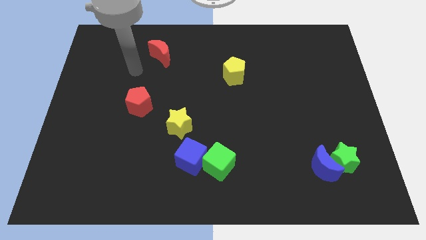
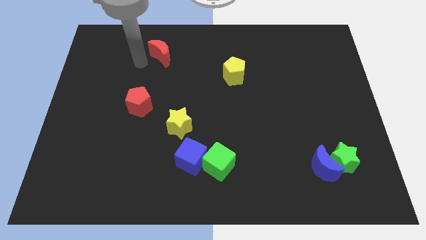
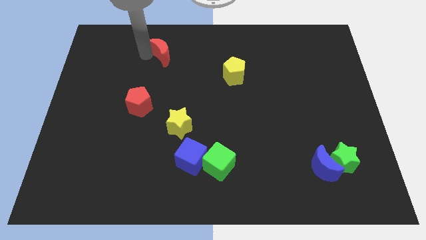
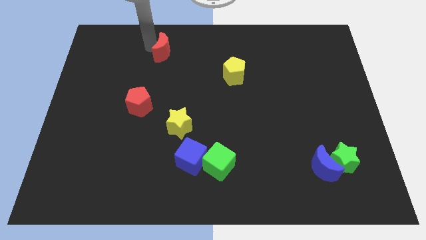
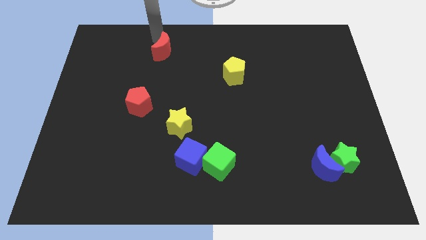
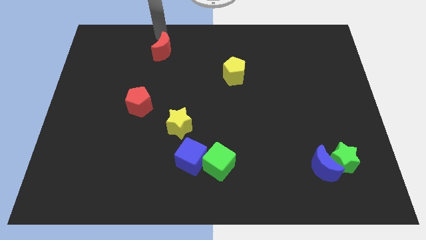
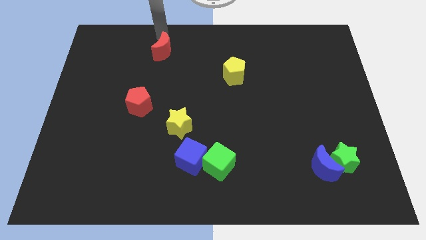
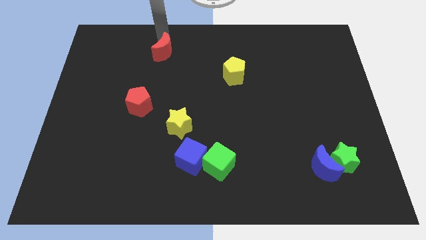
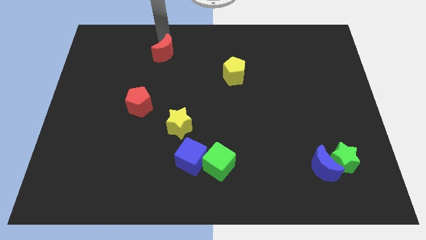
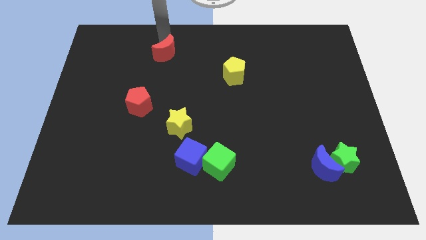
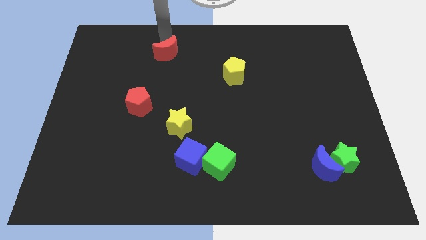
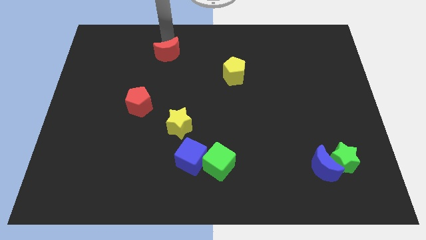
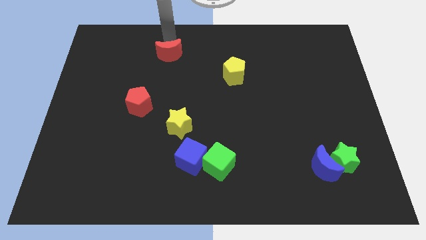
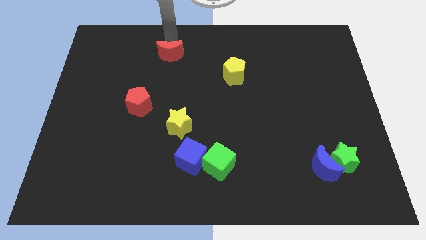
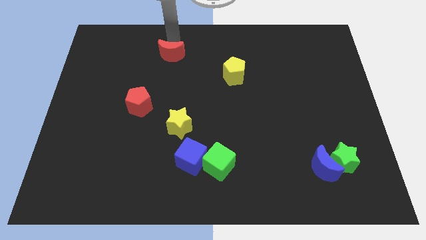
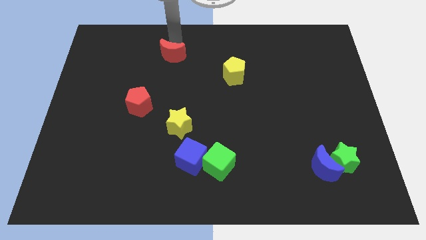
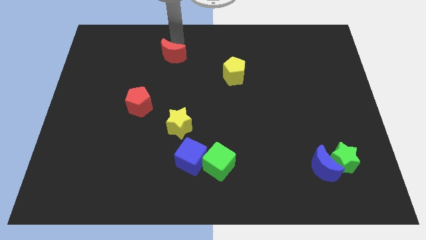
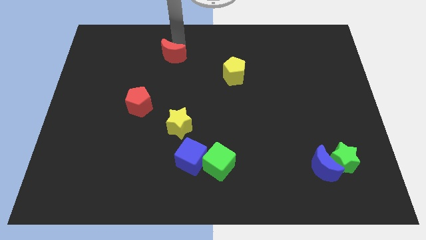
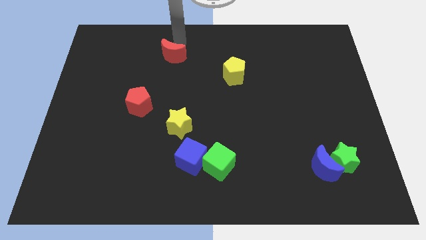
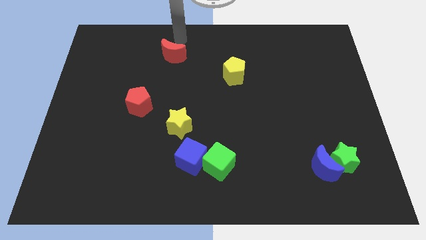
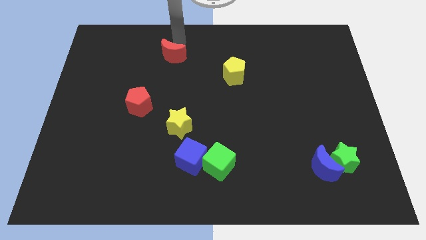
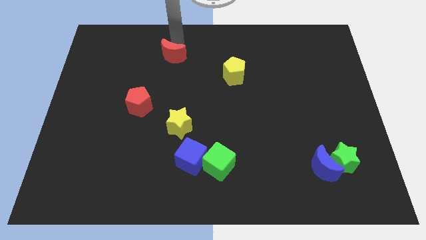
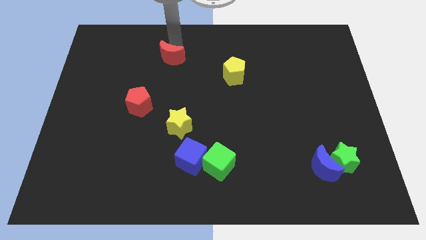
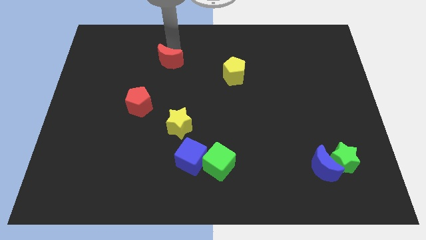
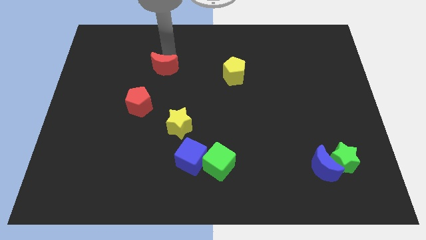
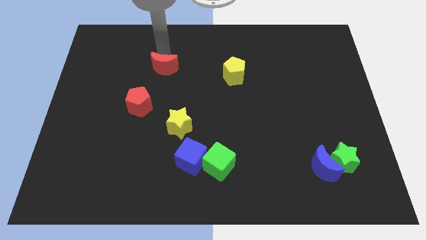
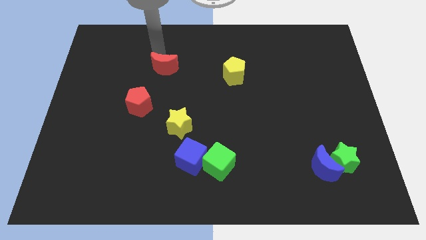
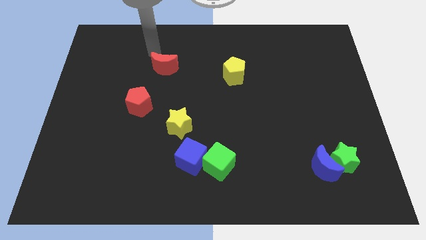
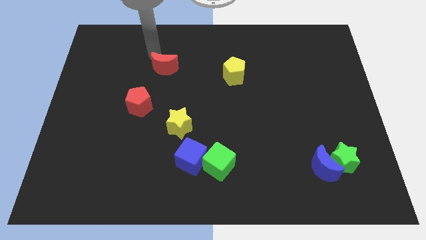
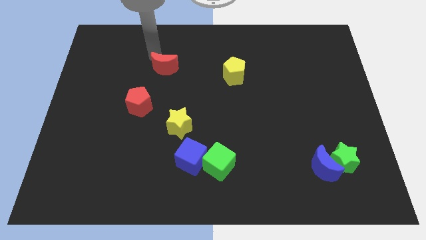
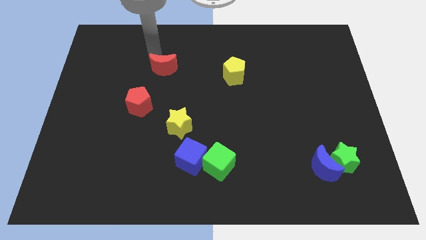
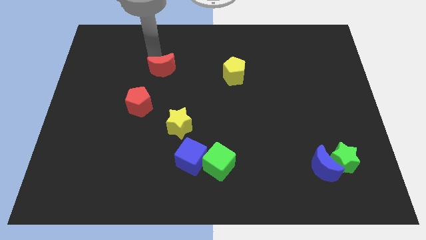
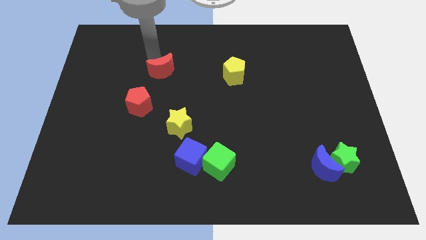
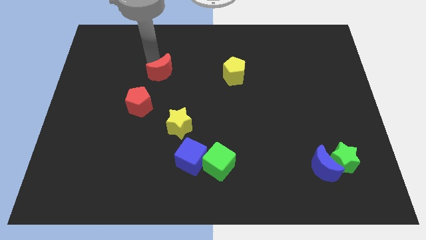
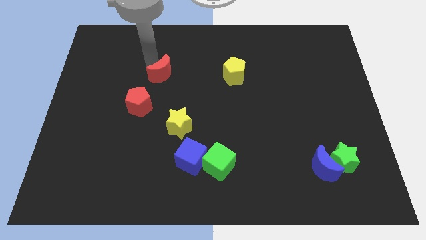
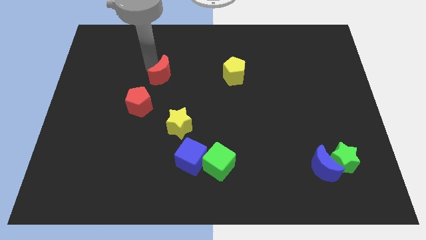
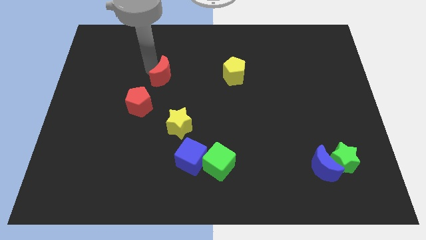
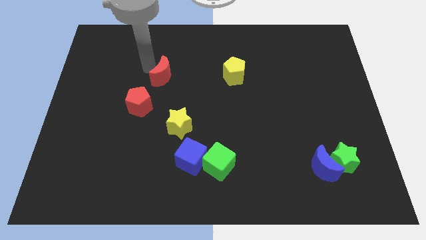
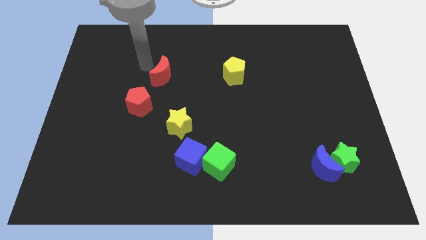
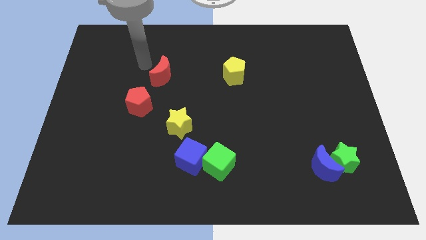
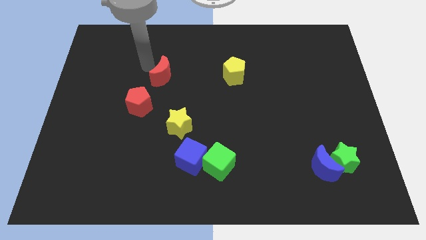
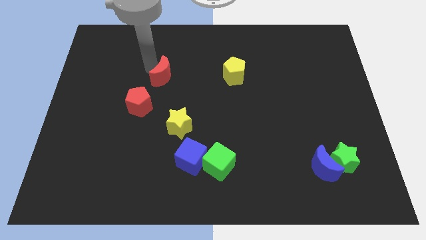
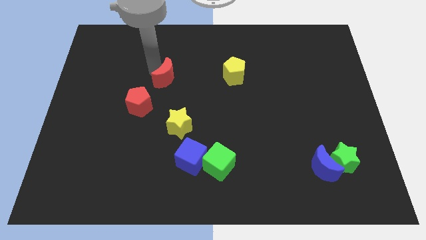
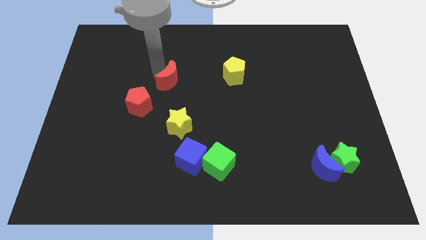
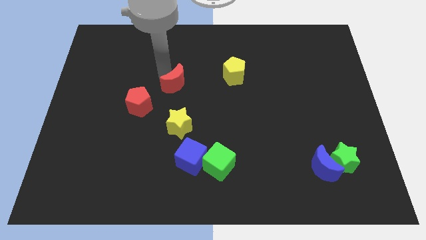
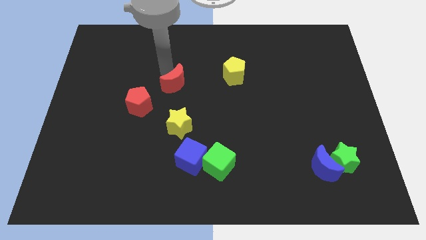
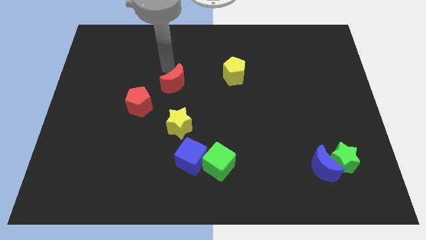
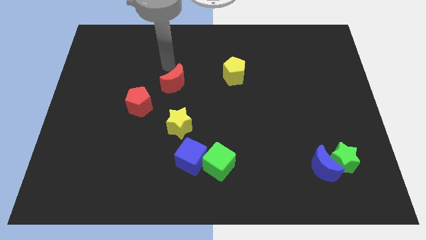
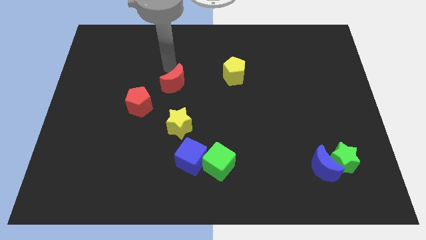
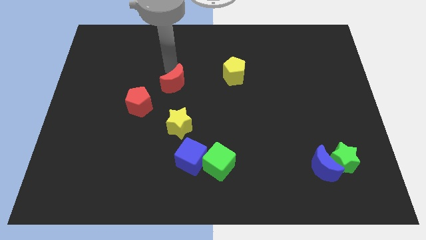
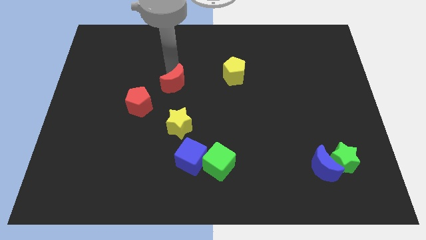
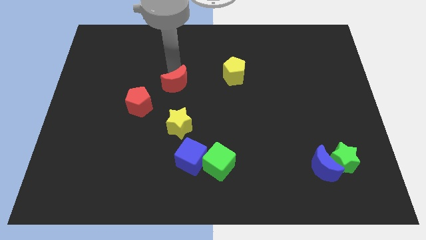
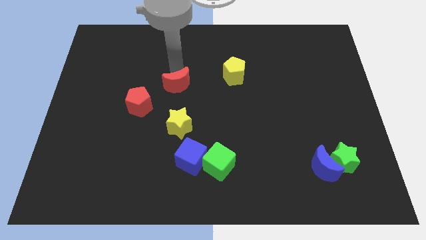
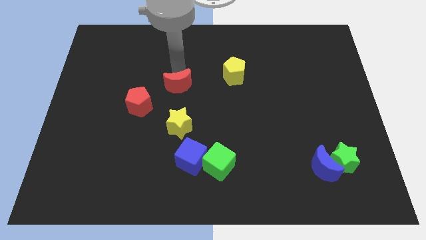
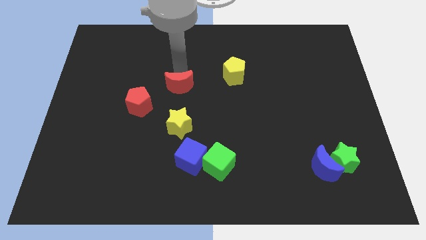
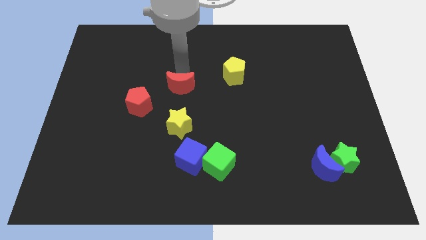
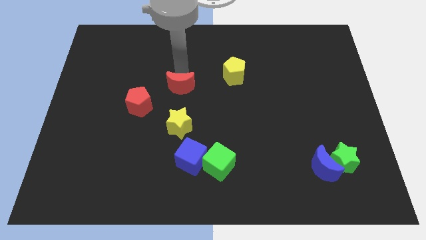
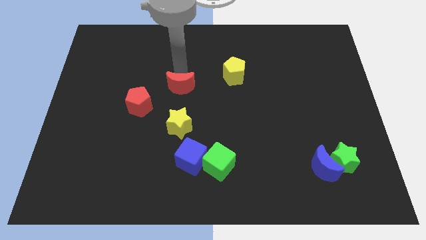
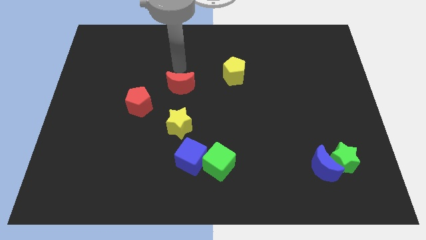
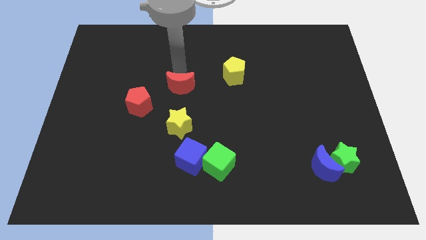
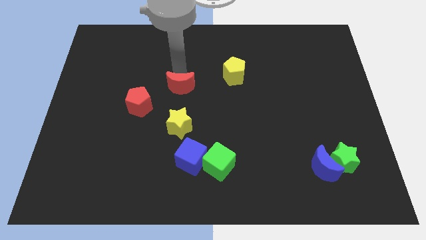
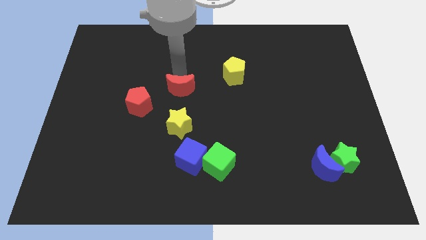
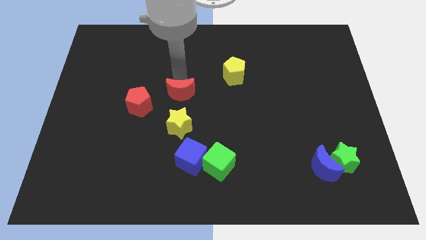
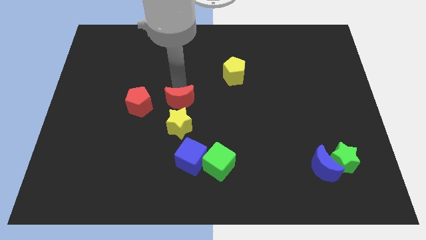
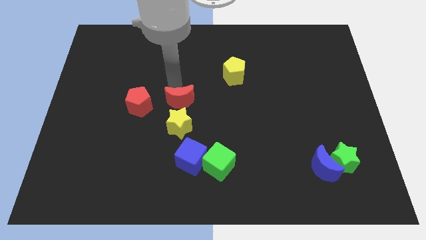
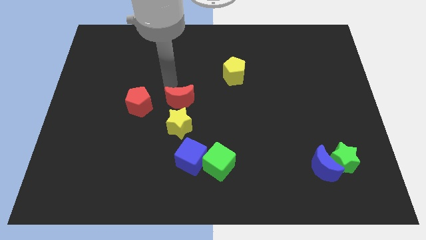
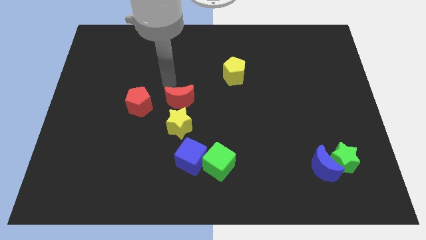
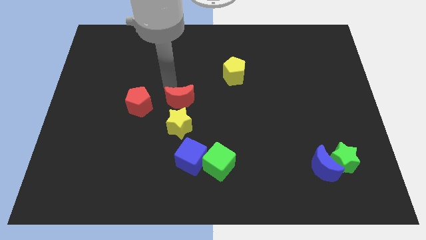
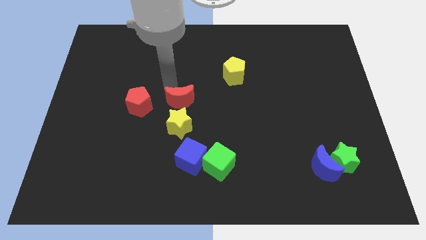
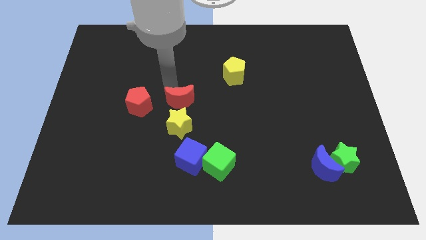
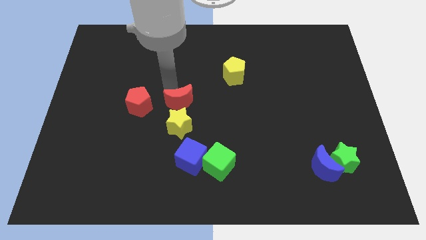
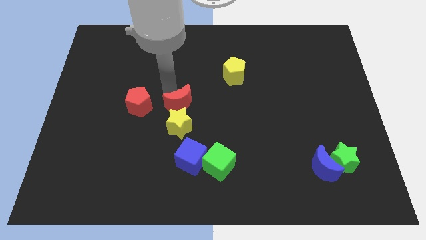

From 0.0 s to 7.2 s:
put the red moon to the top of the blue cube
